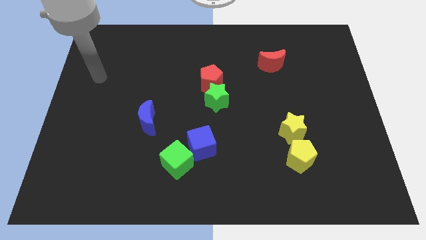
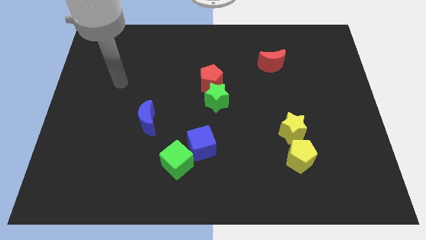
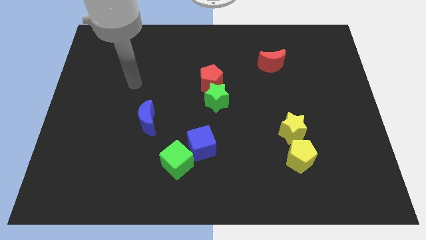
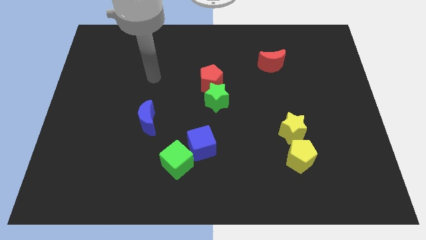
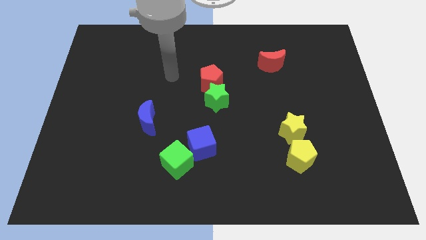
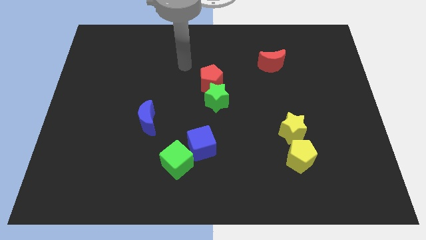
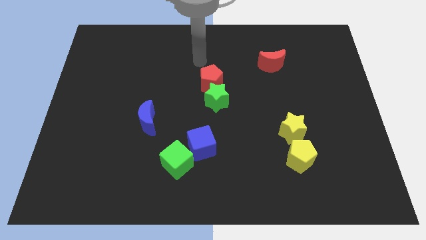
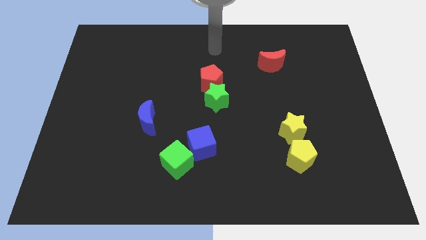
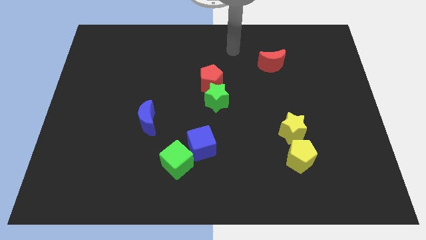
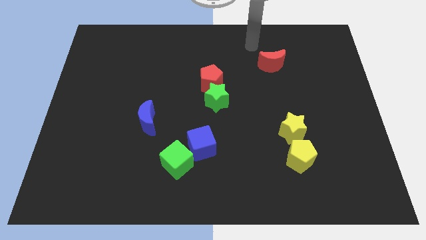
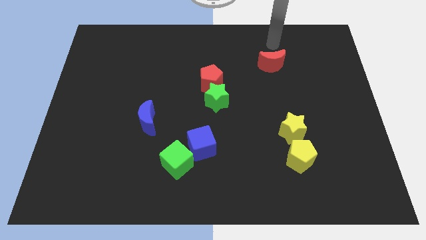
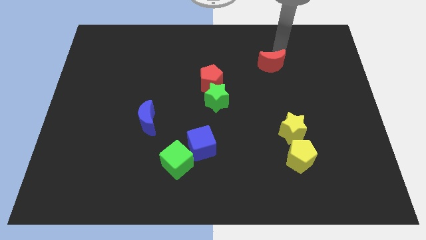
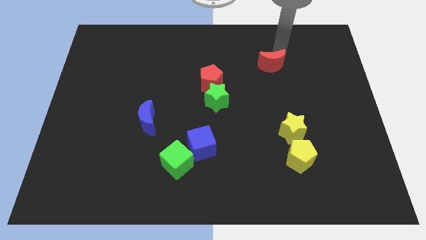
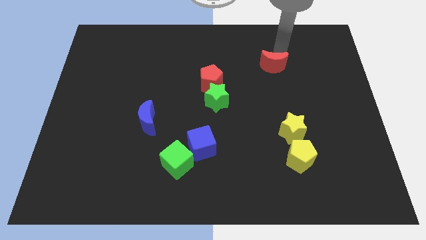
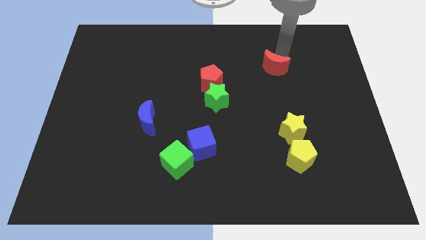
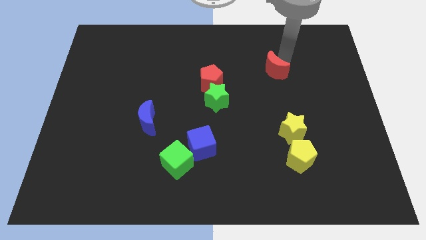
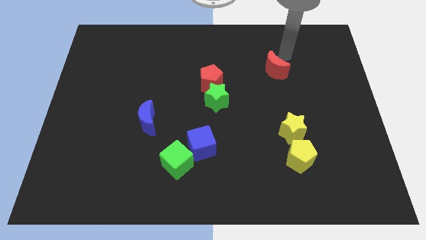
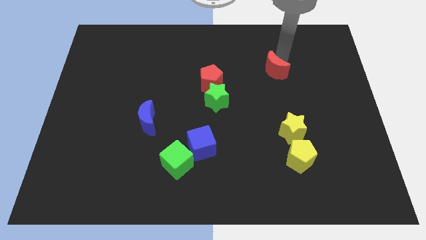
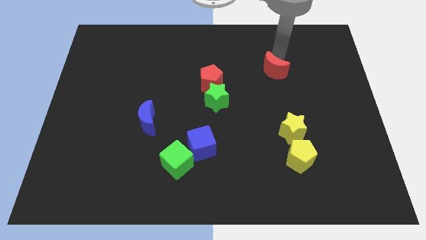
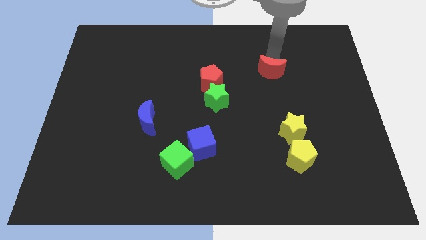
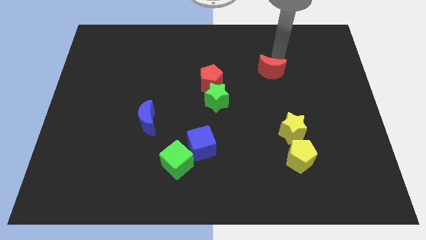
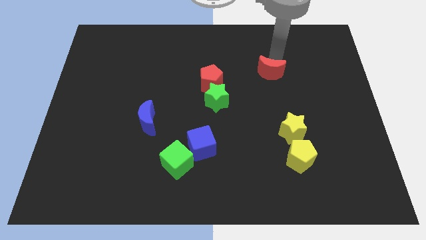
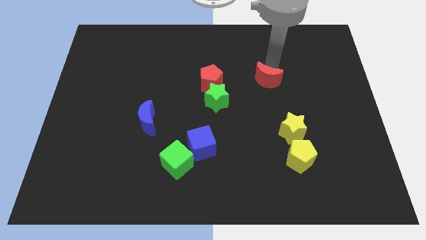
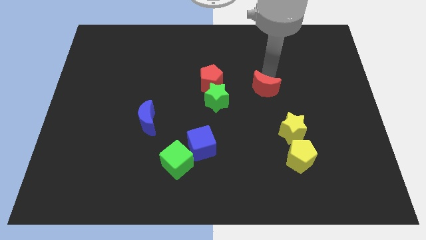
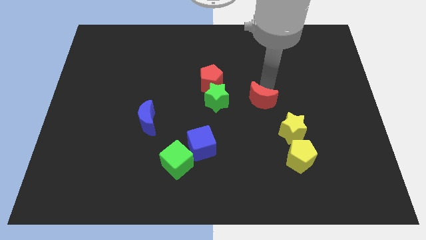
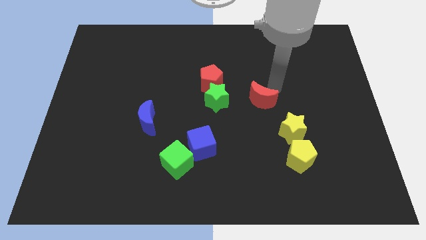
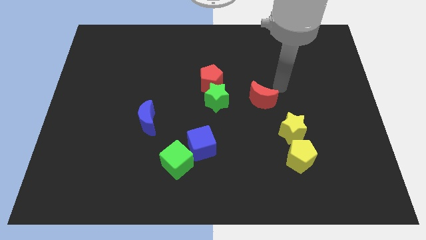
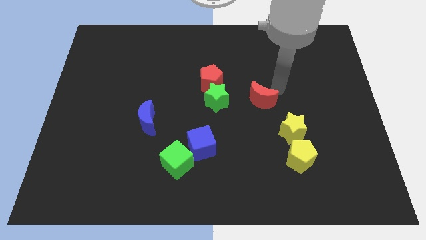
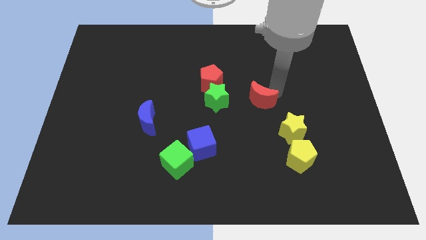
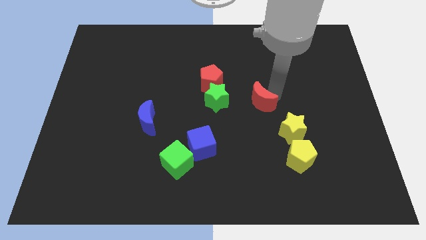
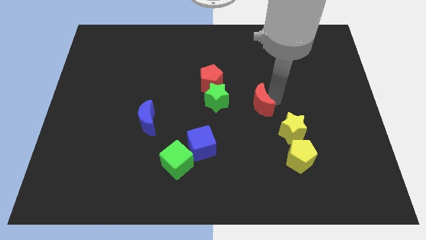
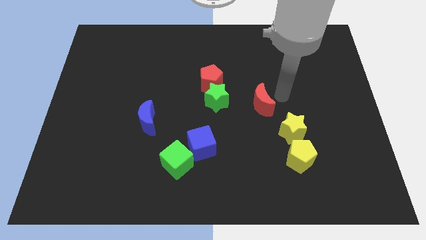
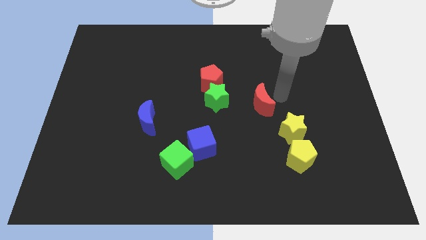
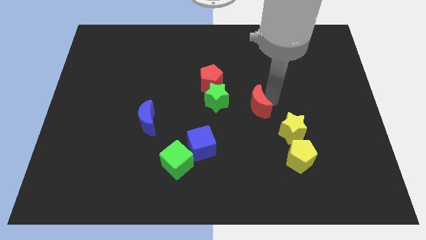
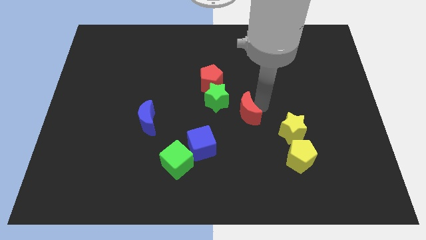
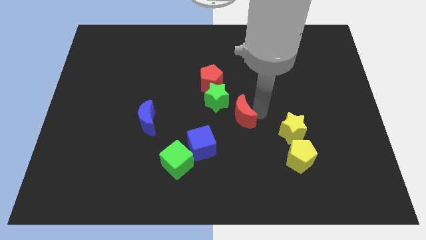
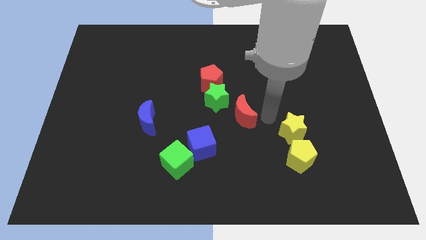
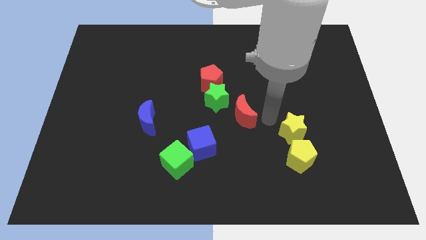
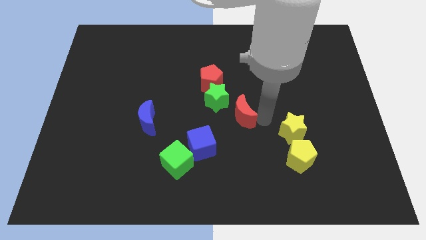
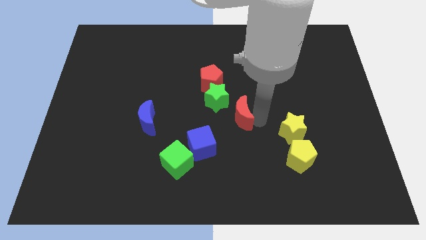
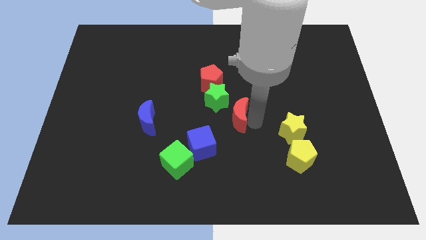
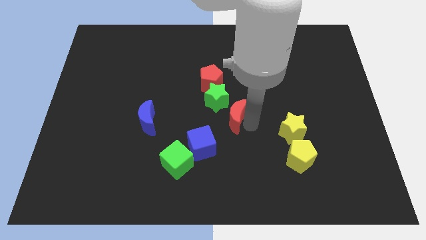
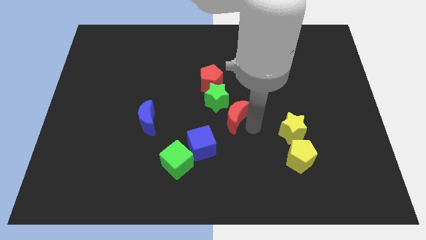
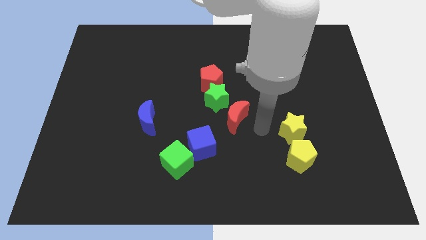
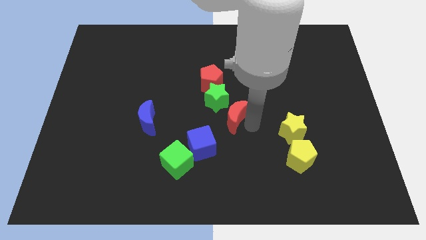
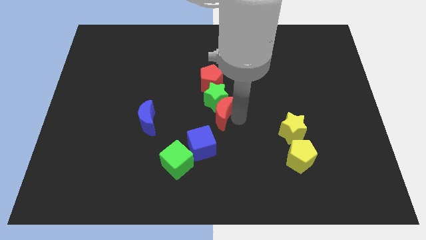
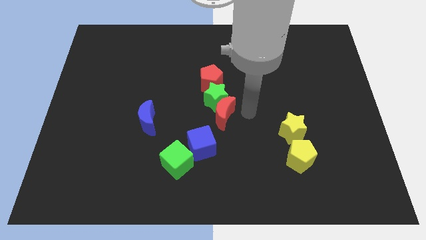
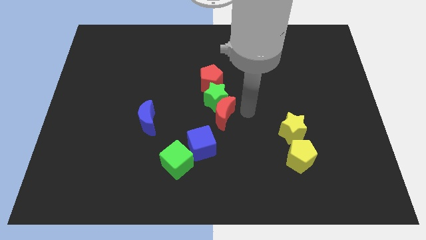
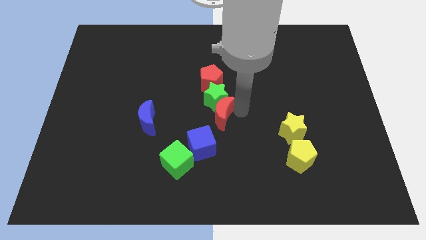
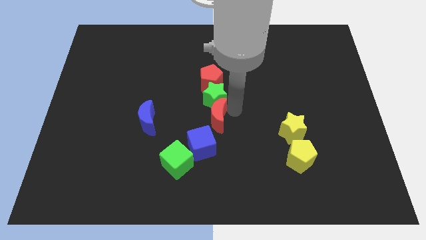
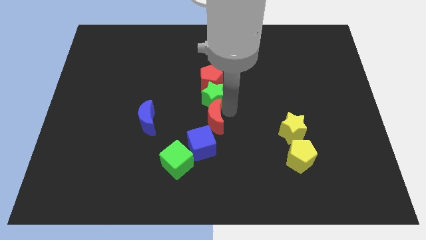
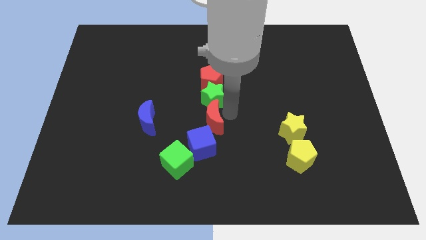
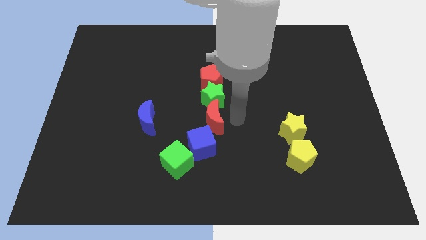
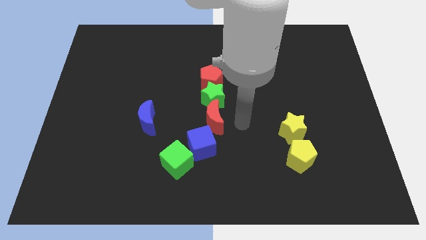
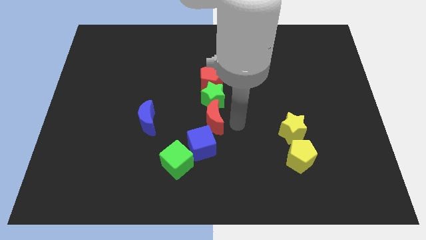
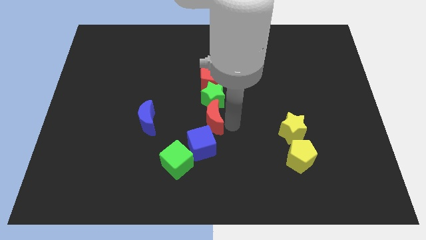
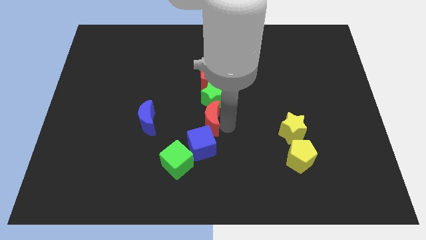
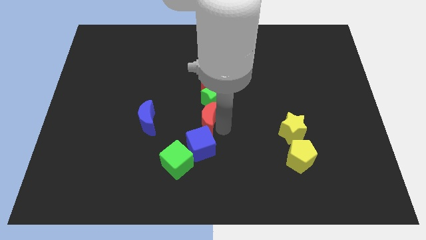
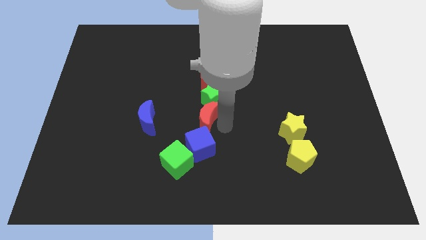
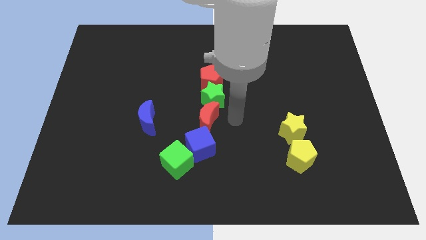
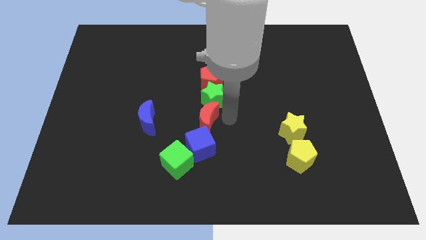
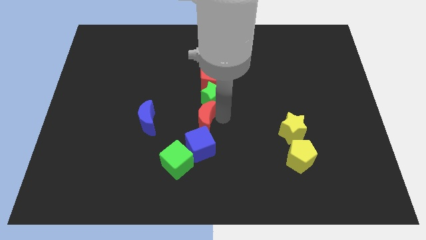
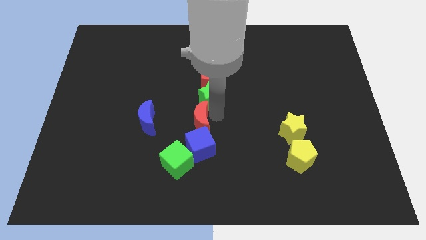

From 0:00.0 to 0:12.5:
push the red moon above the green cube

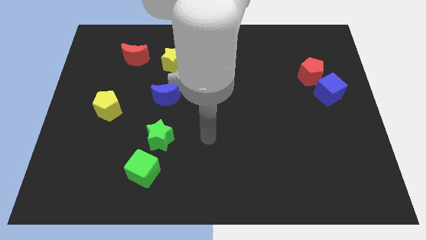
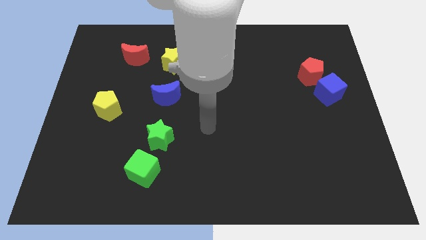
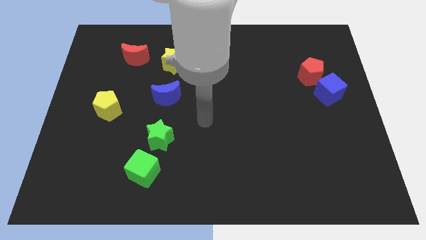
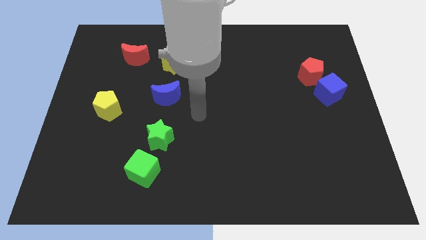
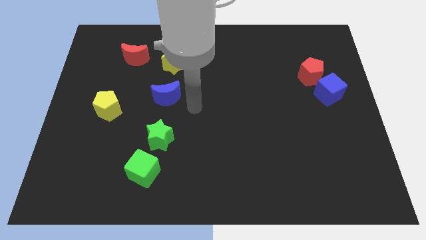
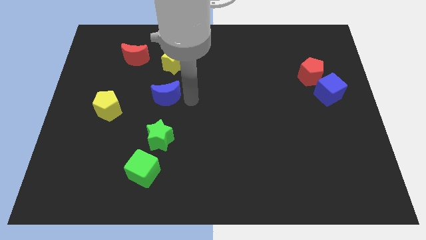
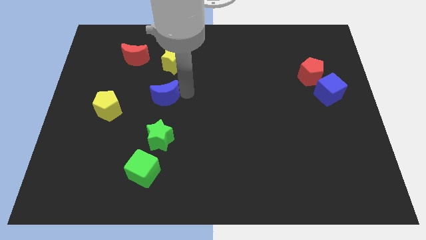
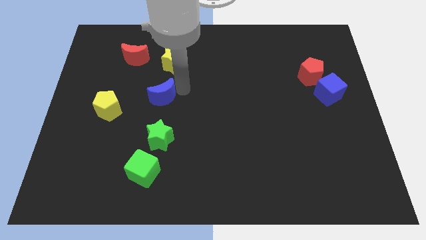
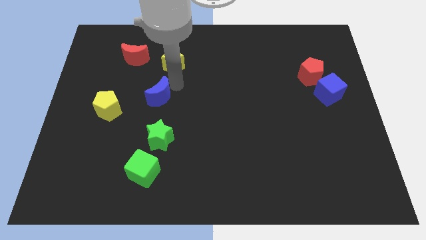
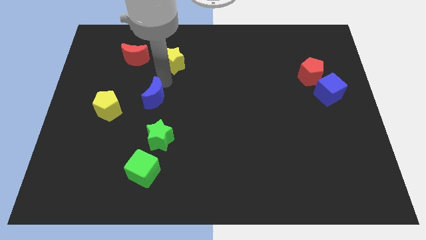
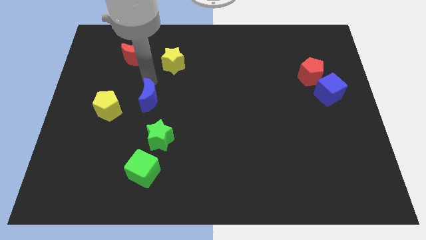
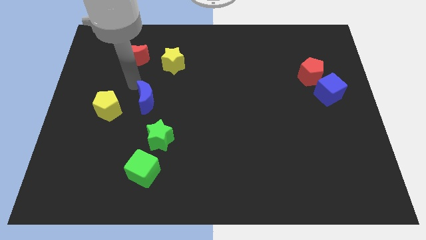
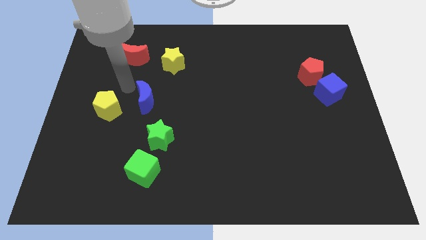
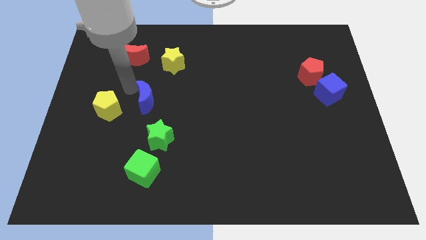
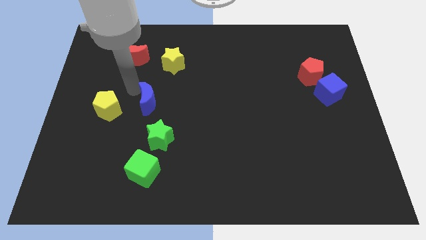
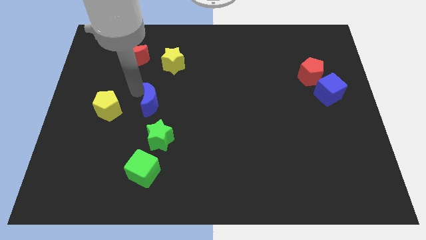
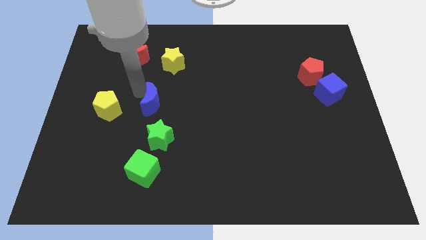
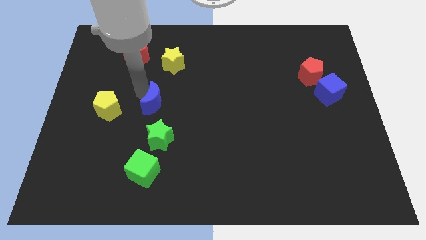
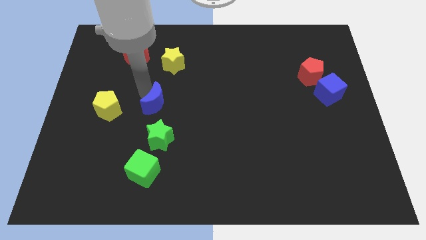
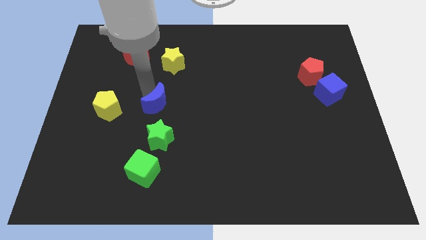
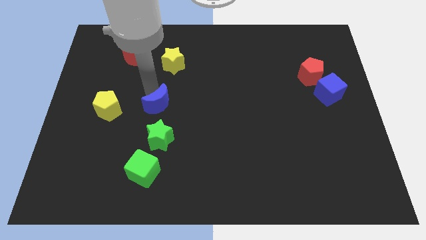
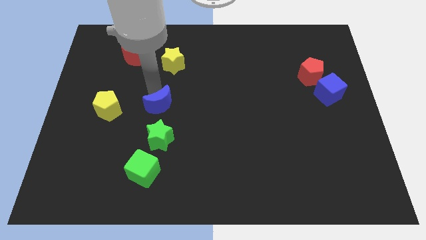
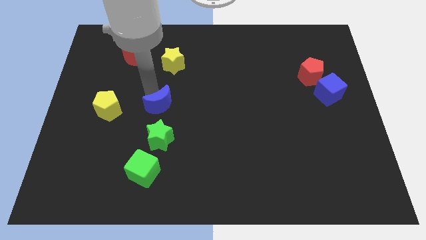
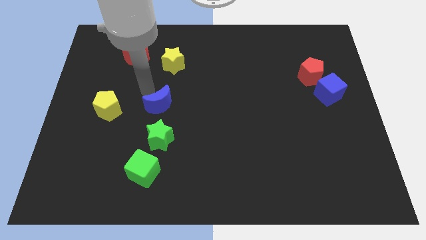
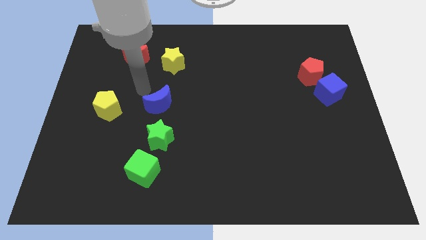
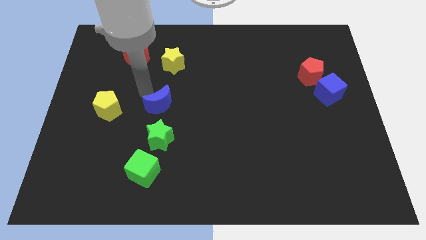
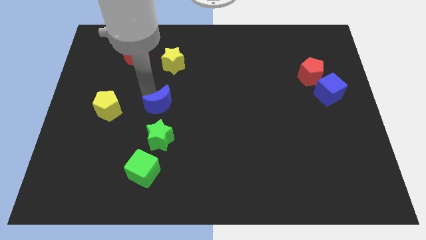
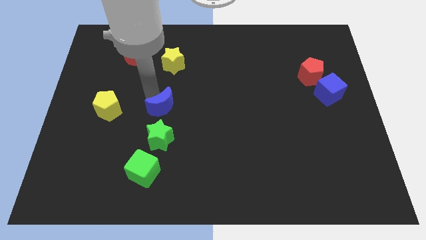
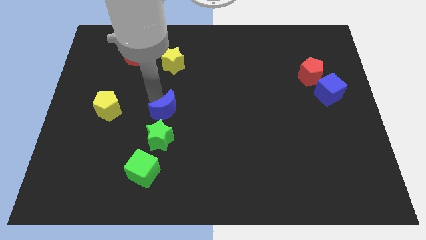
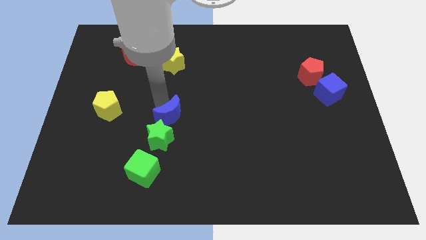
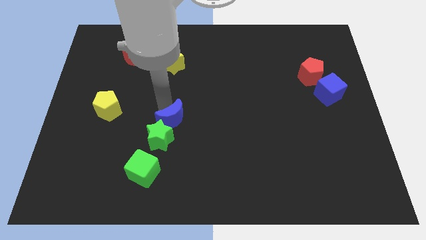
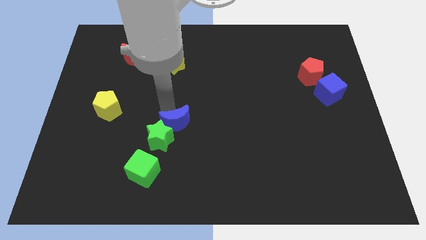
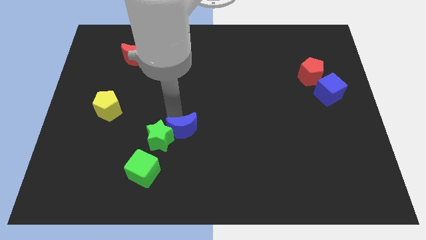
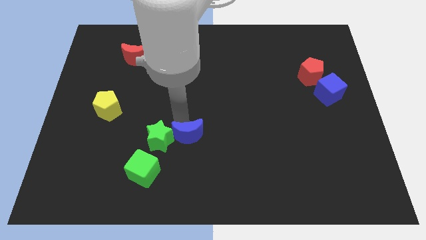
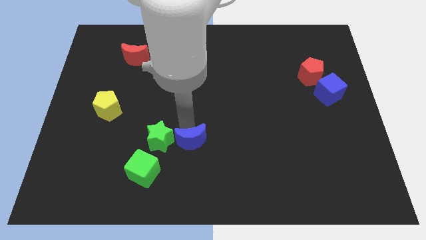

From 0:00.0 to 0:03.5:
push the blue moon diagonally down and to the right of the green star
